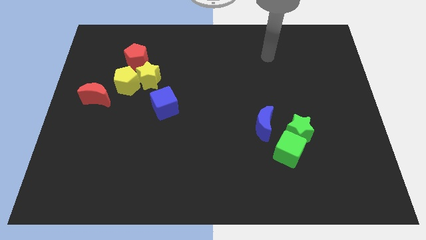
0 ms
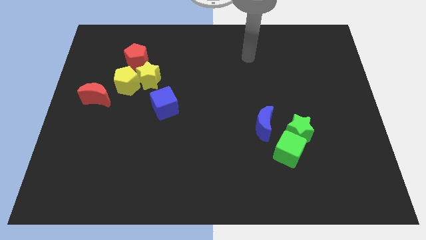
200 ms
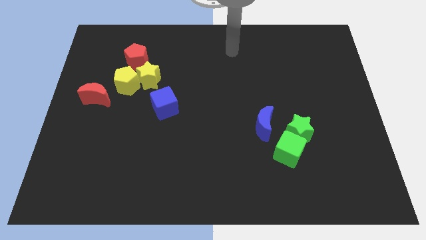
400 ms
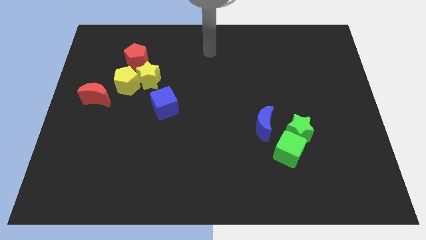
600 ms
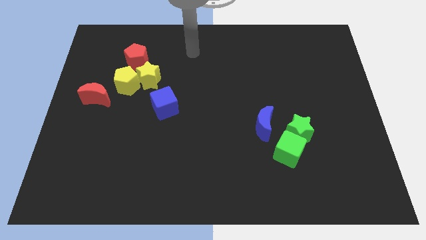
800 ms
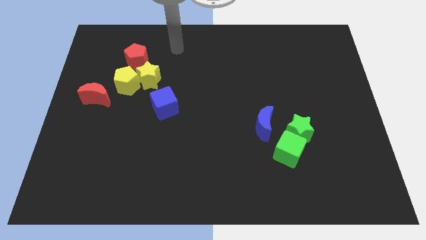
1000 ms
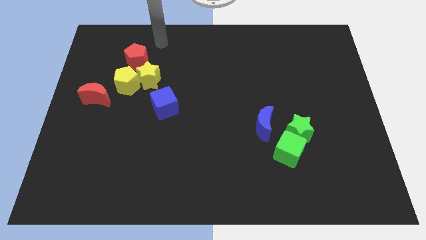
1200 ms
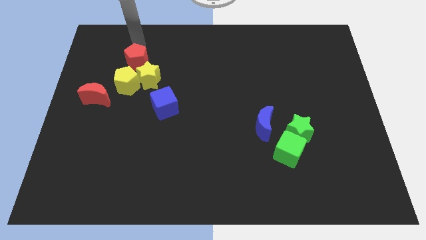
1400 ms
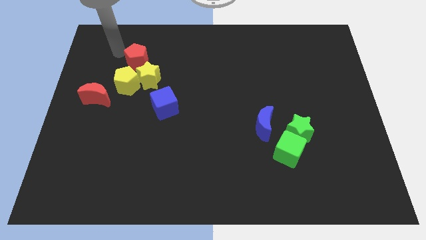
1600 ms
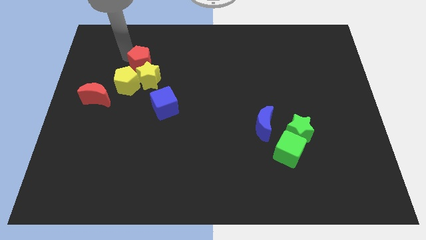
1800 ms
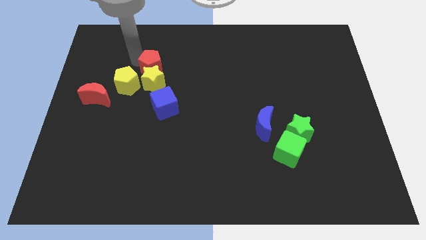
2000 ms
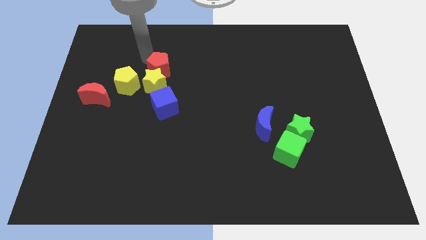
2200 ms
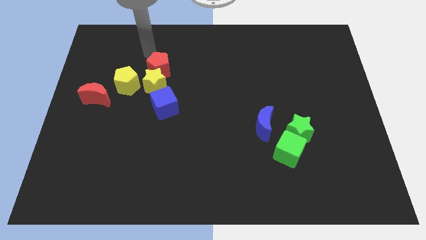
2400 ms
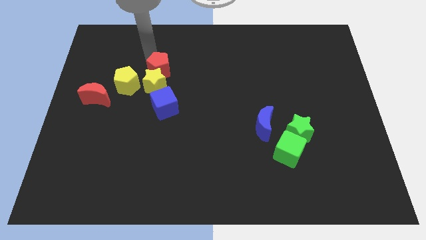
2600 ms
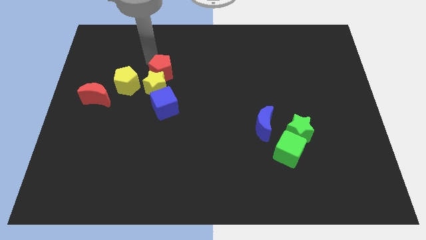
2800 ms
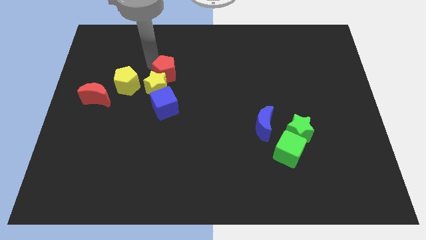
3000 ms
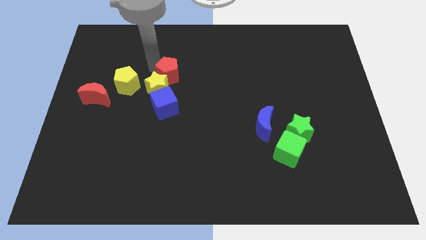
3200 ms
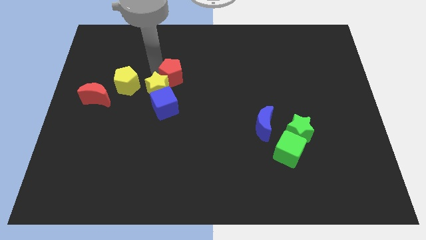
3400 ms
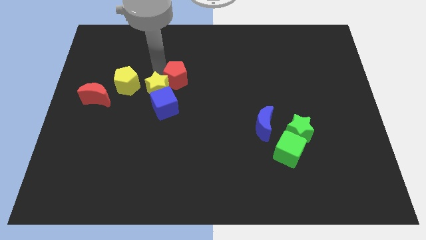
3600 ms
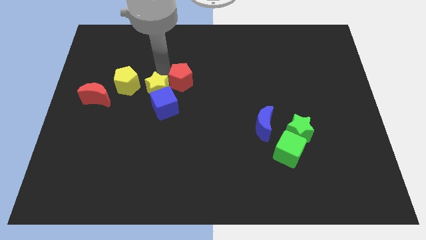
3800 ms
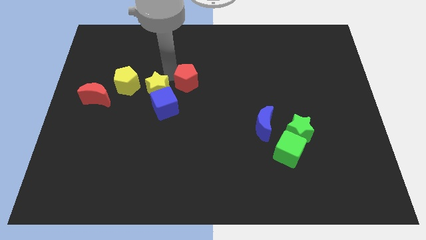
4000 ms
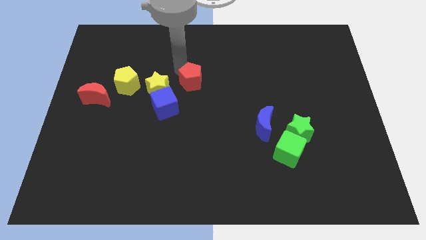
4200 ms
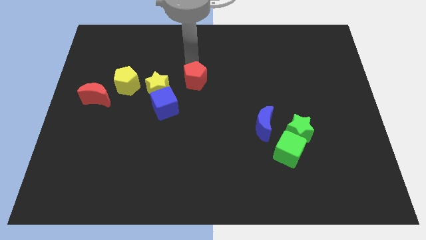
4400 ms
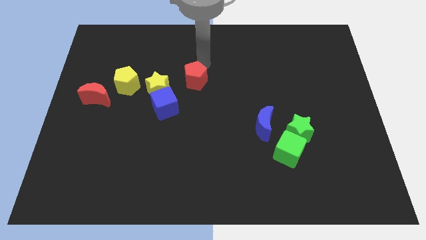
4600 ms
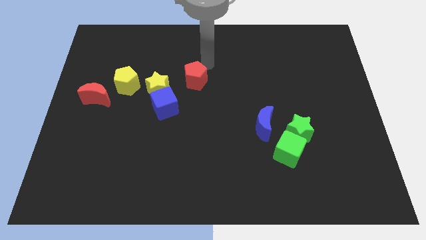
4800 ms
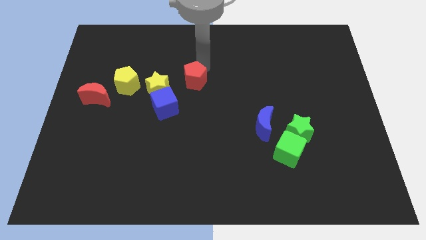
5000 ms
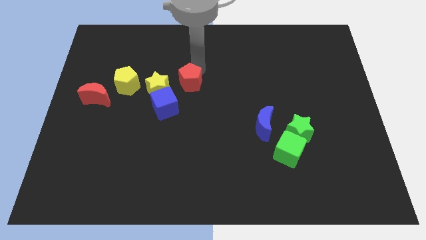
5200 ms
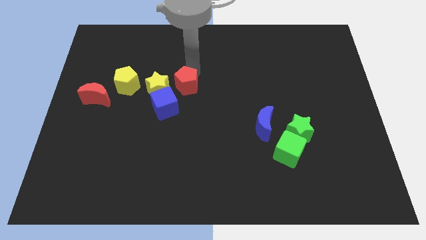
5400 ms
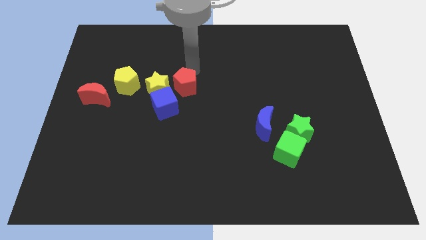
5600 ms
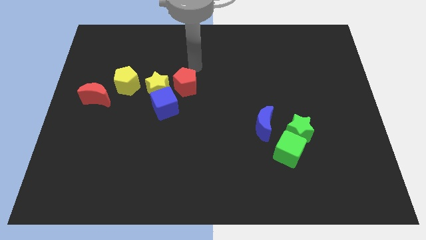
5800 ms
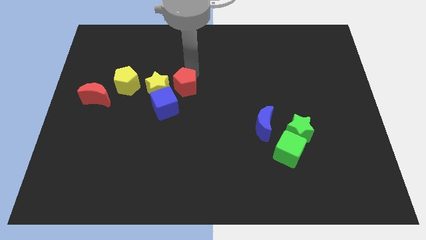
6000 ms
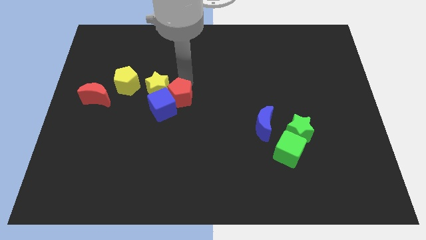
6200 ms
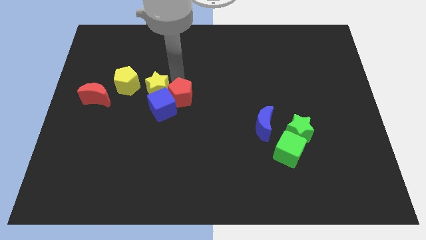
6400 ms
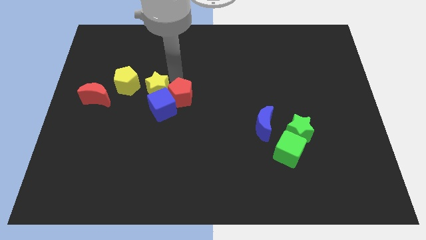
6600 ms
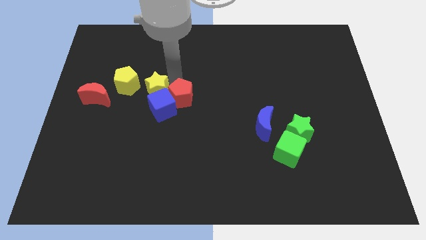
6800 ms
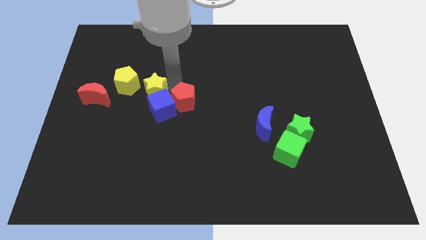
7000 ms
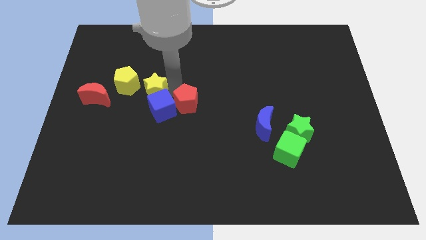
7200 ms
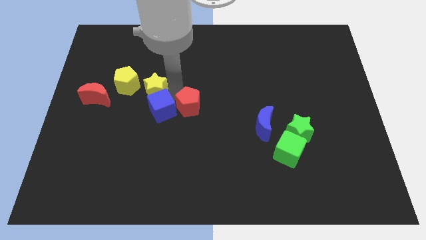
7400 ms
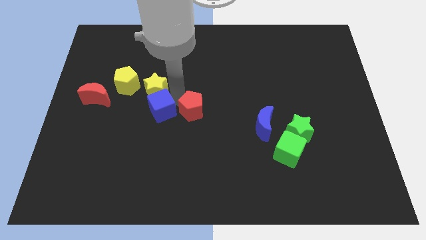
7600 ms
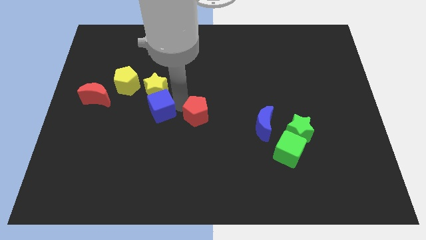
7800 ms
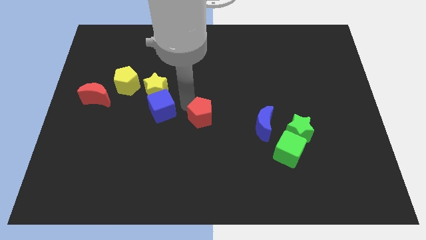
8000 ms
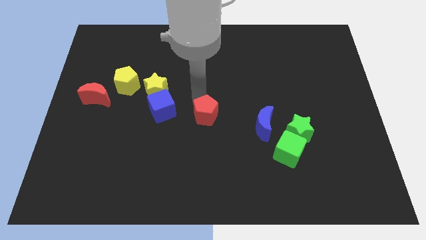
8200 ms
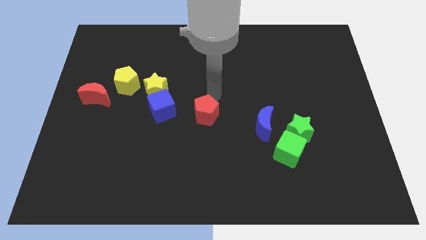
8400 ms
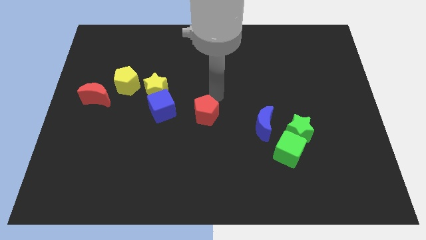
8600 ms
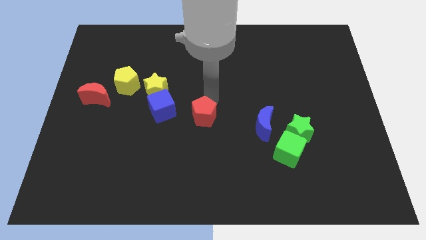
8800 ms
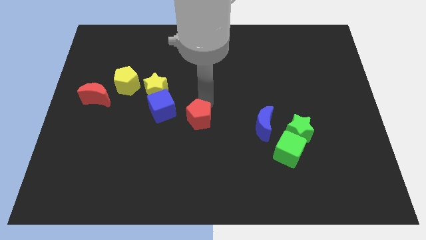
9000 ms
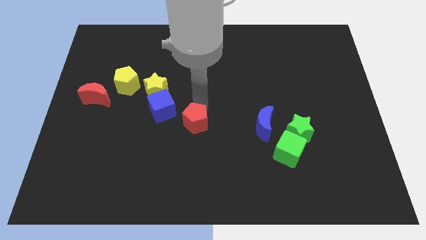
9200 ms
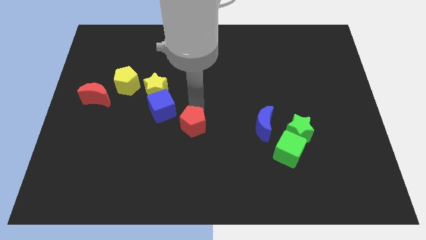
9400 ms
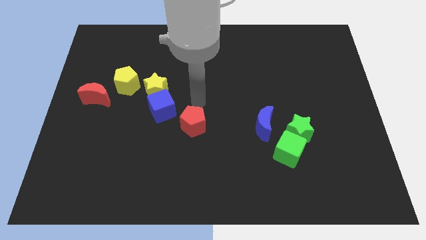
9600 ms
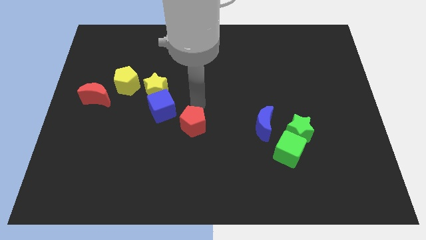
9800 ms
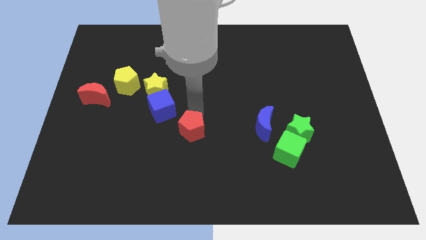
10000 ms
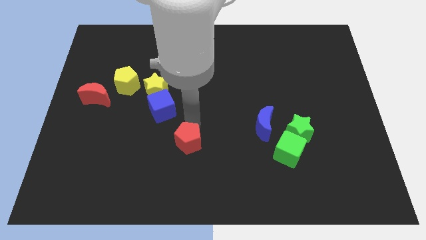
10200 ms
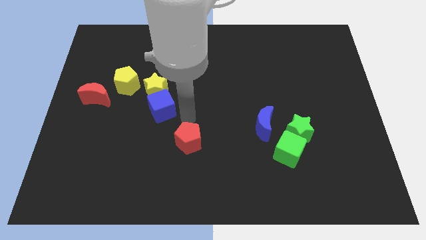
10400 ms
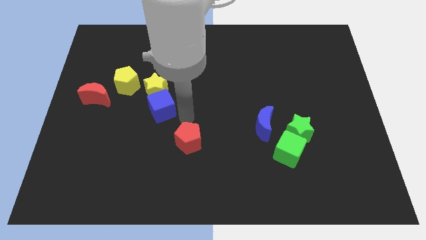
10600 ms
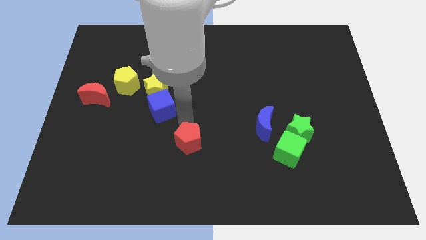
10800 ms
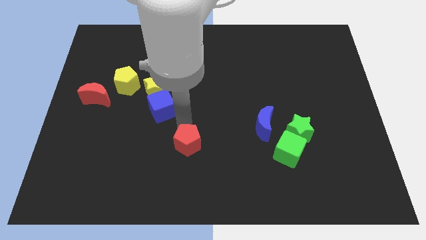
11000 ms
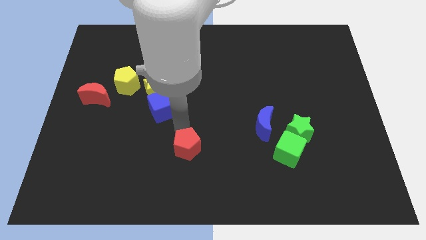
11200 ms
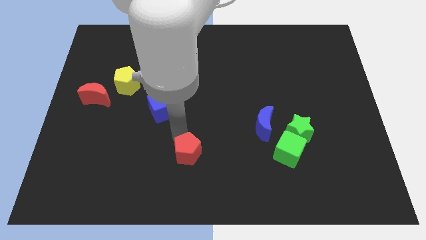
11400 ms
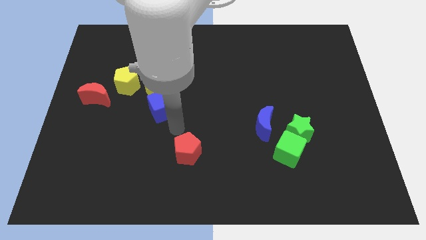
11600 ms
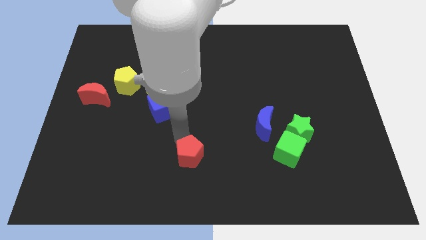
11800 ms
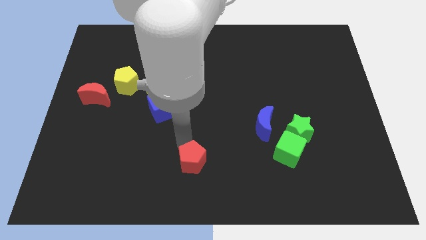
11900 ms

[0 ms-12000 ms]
put the red pentagon to the bottom
